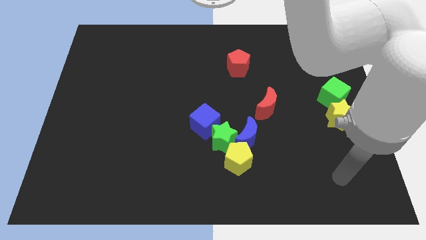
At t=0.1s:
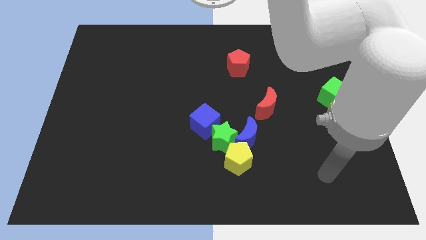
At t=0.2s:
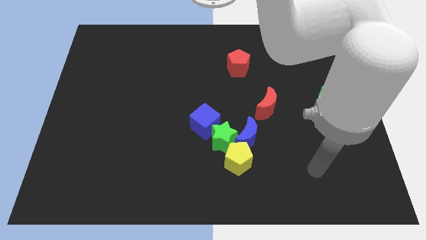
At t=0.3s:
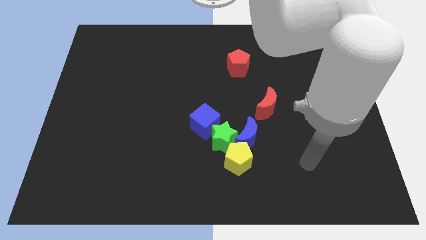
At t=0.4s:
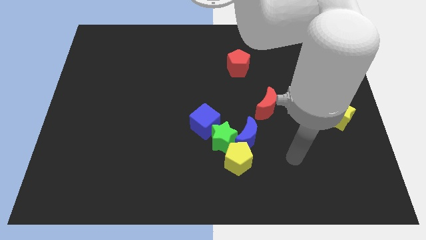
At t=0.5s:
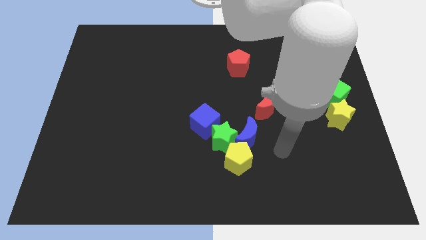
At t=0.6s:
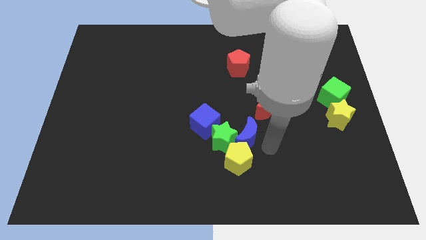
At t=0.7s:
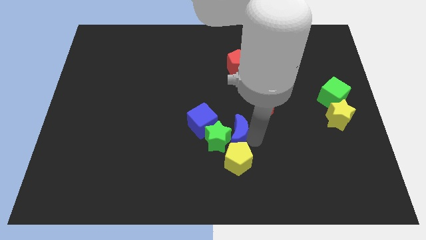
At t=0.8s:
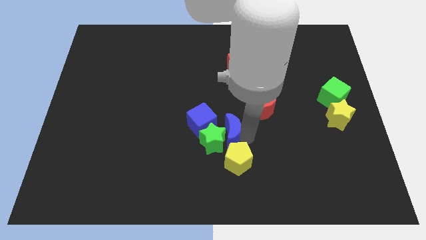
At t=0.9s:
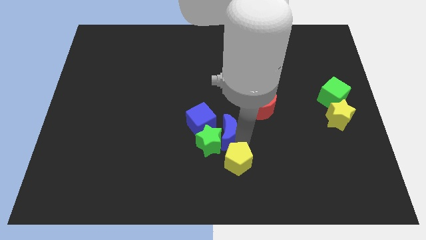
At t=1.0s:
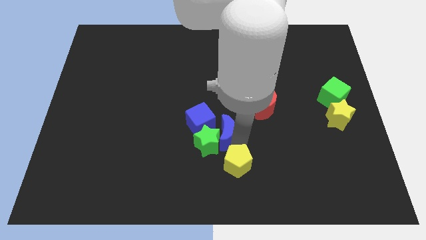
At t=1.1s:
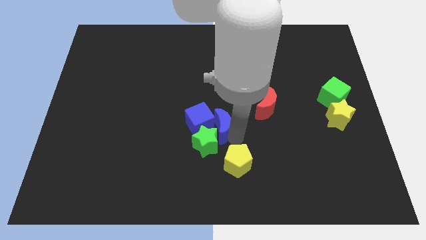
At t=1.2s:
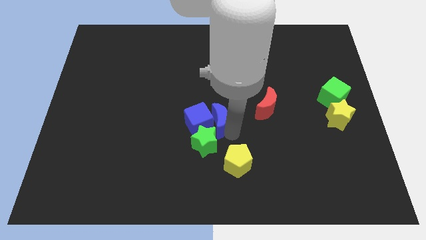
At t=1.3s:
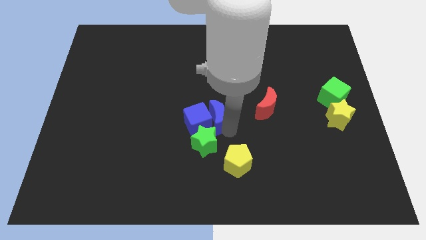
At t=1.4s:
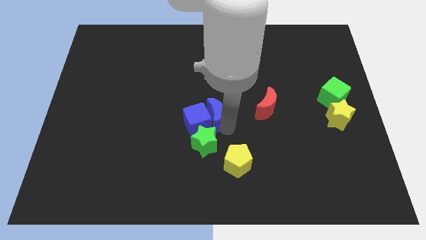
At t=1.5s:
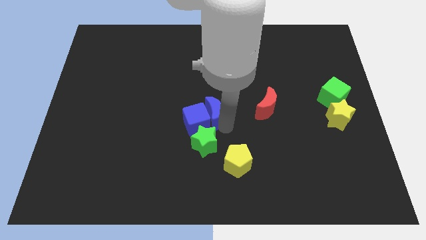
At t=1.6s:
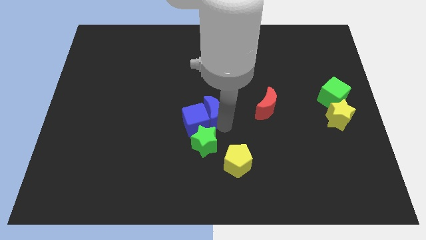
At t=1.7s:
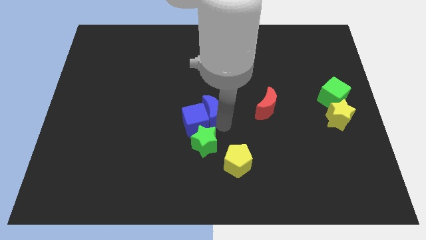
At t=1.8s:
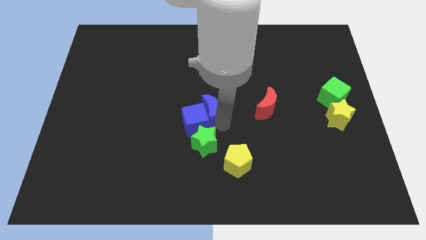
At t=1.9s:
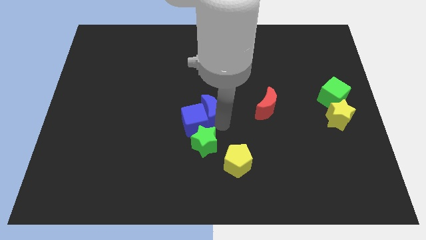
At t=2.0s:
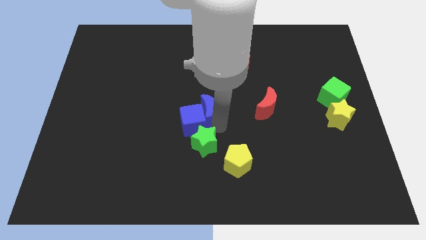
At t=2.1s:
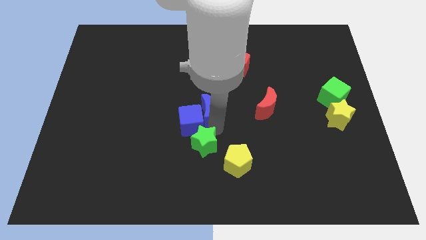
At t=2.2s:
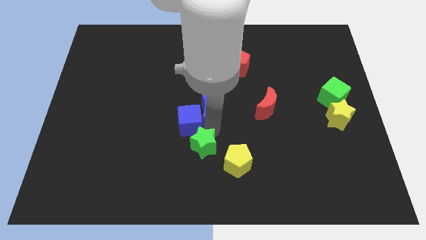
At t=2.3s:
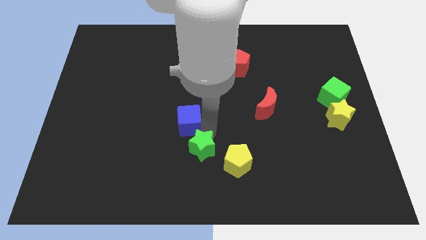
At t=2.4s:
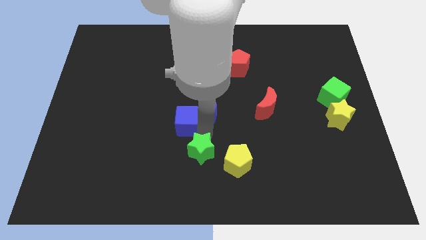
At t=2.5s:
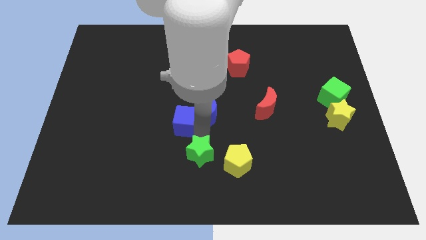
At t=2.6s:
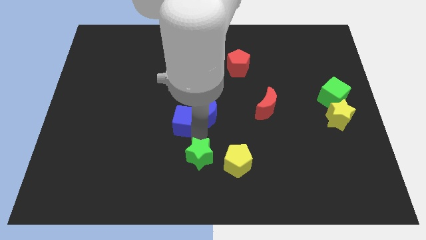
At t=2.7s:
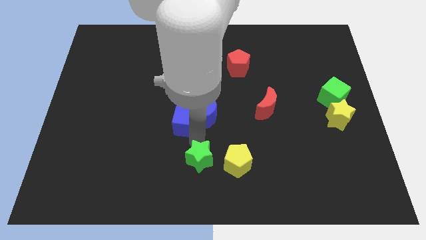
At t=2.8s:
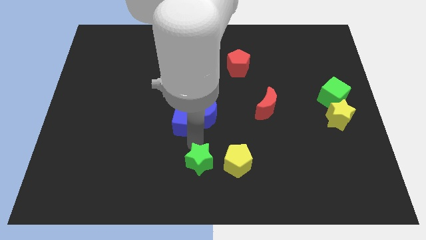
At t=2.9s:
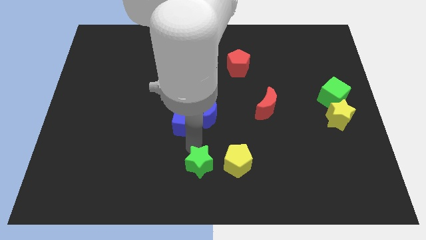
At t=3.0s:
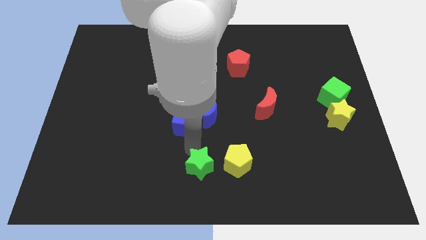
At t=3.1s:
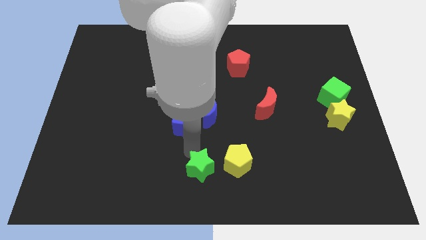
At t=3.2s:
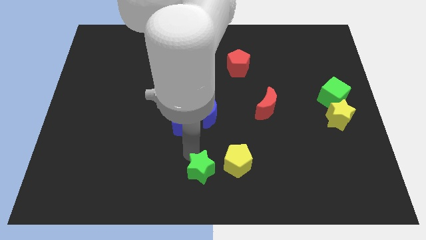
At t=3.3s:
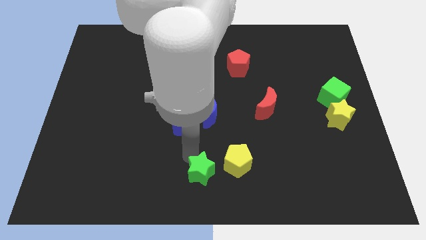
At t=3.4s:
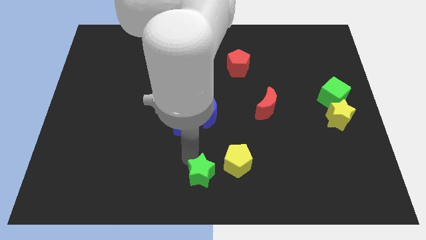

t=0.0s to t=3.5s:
separate the green star from the blue moon, blue cube, and yellow pentagon

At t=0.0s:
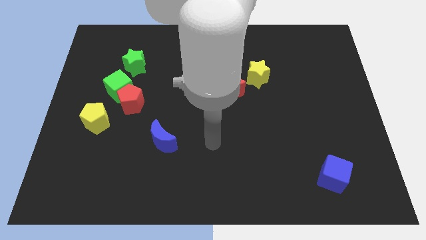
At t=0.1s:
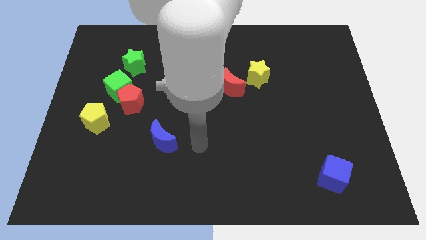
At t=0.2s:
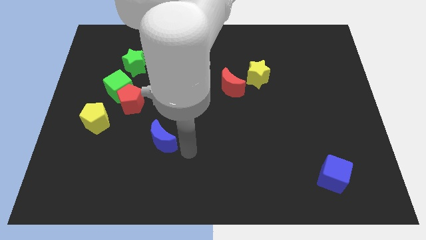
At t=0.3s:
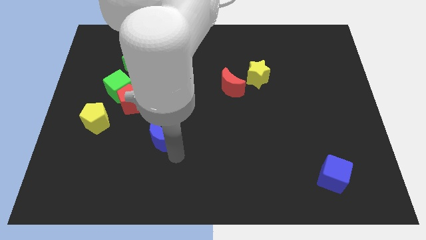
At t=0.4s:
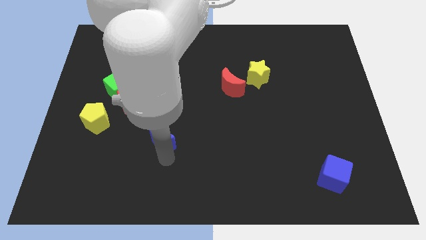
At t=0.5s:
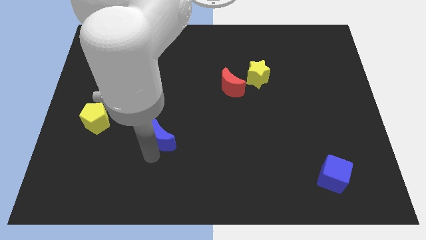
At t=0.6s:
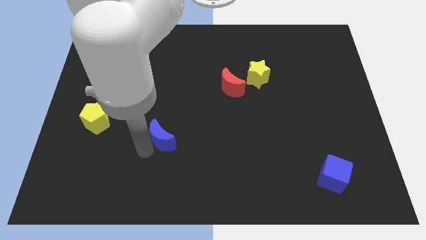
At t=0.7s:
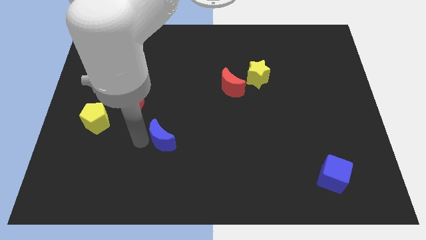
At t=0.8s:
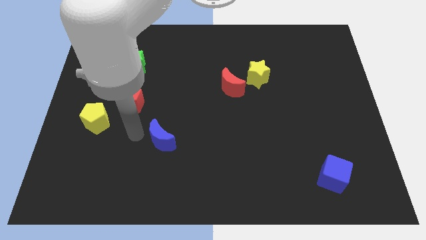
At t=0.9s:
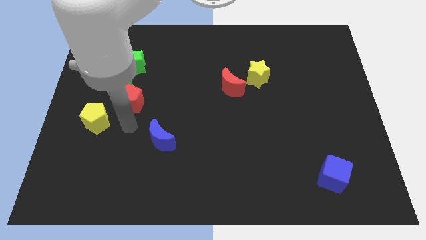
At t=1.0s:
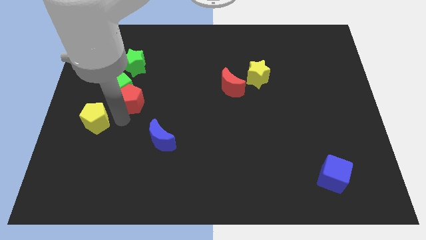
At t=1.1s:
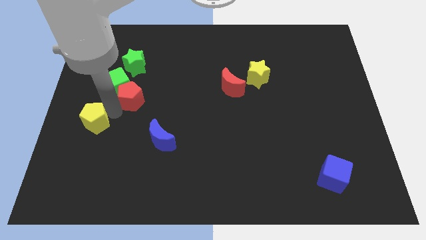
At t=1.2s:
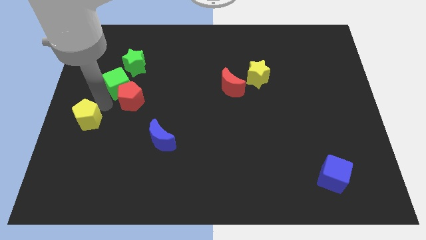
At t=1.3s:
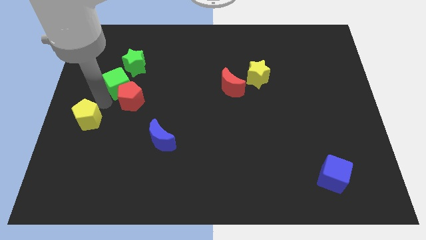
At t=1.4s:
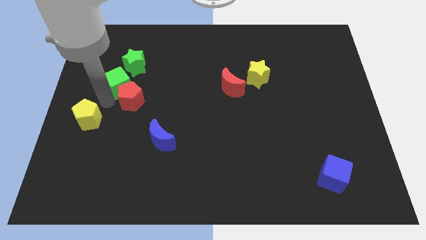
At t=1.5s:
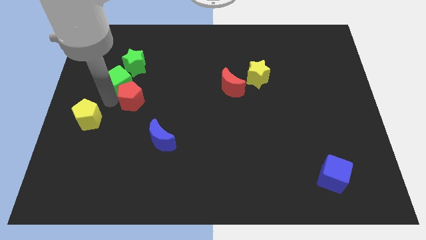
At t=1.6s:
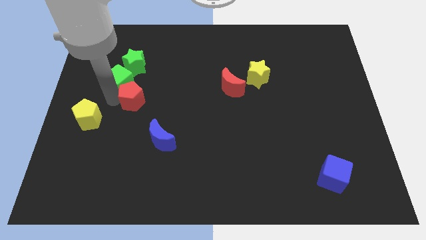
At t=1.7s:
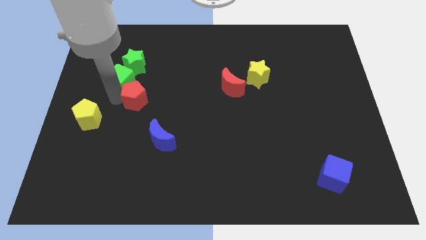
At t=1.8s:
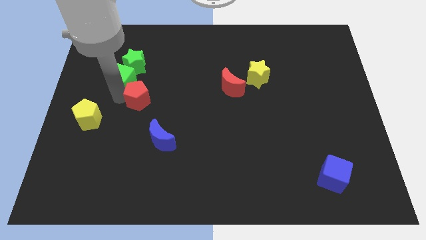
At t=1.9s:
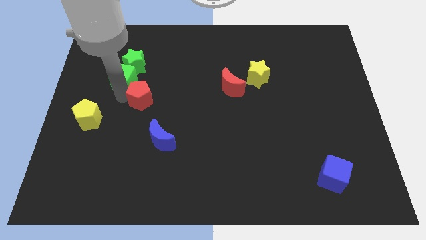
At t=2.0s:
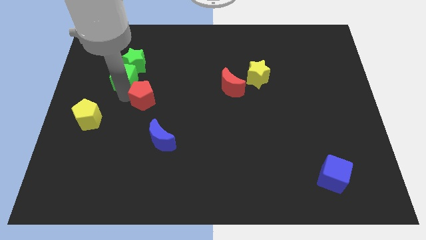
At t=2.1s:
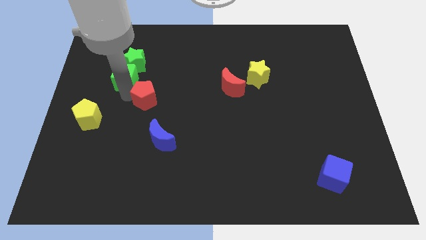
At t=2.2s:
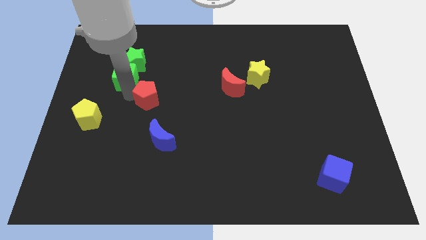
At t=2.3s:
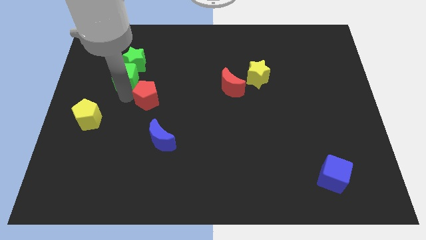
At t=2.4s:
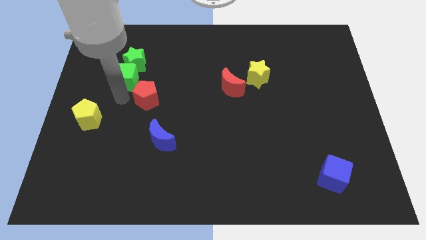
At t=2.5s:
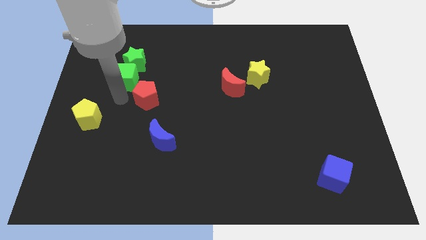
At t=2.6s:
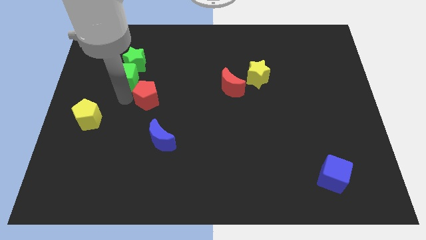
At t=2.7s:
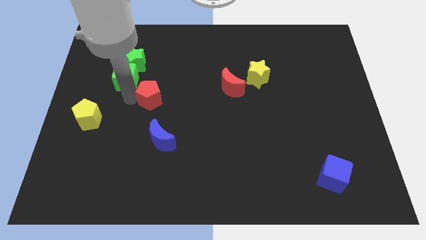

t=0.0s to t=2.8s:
pull the red pentagon apart from the green cube and yellow pentagon

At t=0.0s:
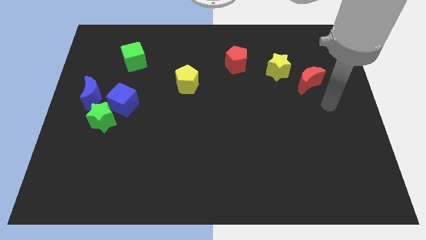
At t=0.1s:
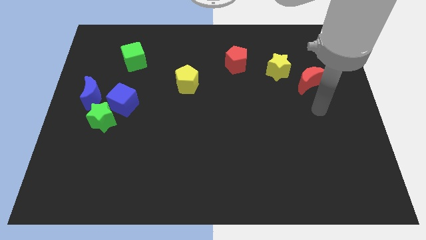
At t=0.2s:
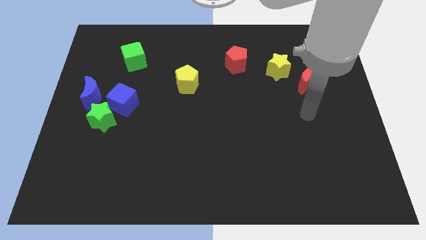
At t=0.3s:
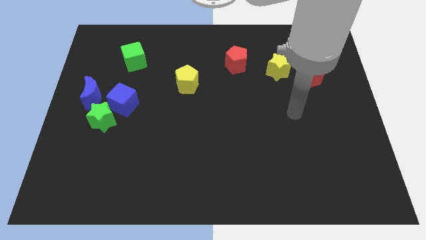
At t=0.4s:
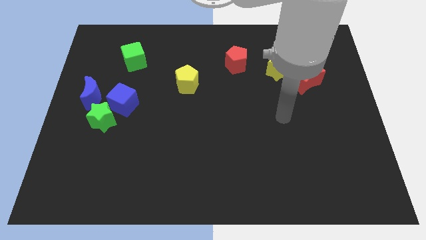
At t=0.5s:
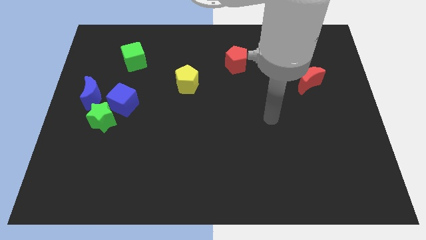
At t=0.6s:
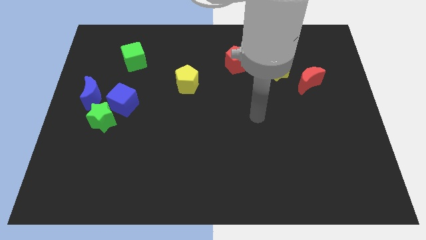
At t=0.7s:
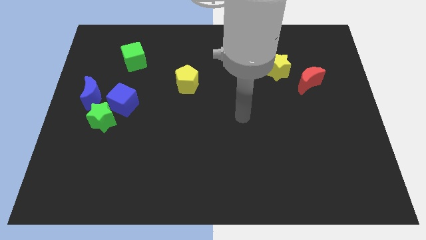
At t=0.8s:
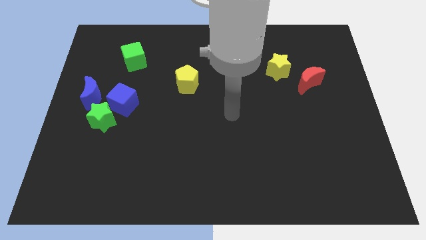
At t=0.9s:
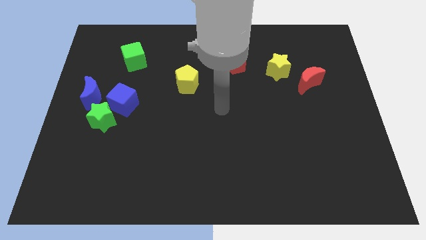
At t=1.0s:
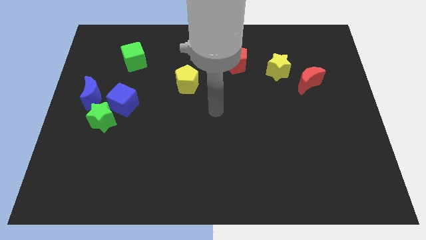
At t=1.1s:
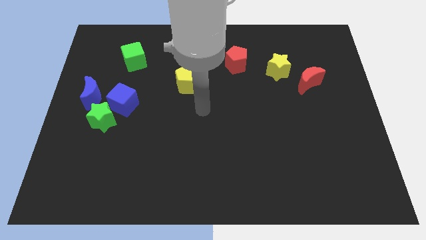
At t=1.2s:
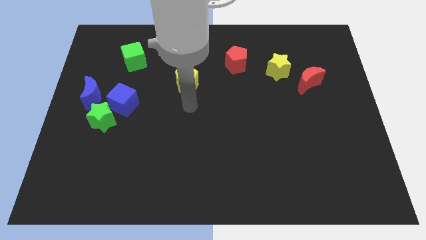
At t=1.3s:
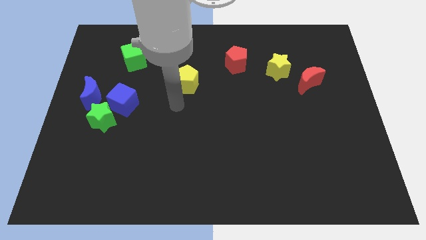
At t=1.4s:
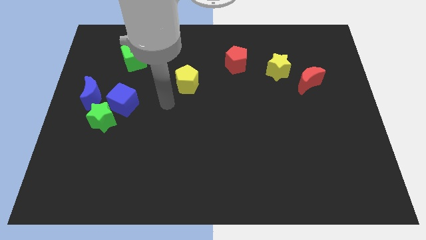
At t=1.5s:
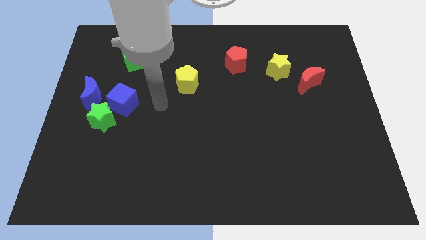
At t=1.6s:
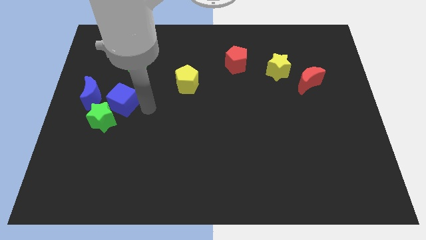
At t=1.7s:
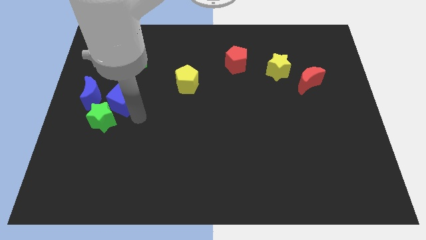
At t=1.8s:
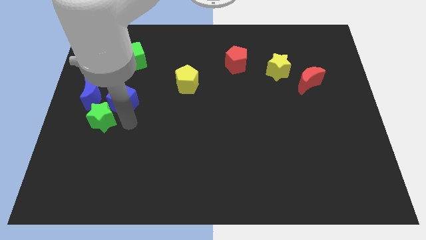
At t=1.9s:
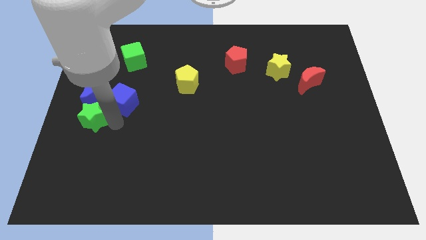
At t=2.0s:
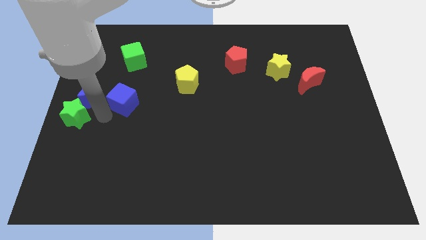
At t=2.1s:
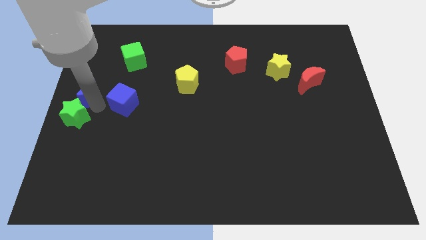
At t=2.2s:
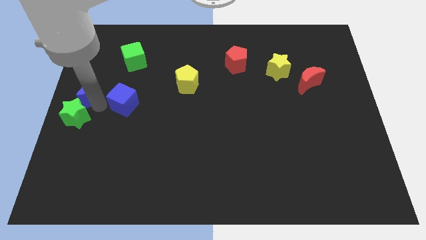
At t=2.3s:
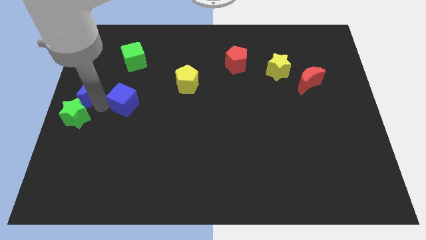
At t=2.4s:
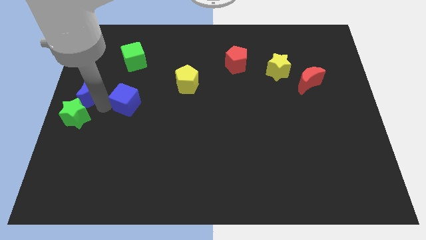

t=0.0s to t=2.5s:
separate the blue cube from the green star and blue moon

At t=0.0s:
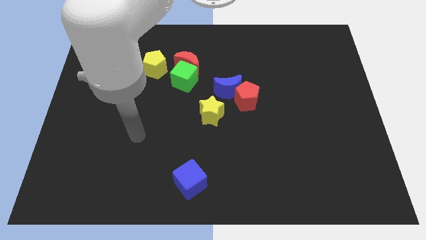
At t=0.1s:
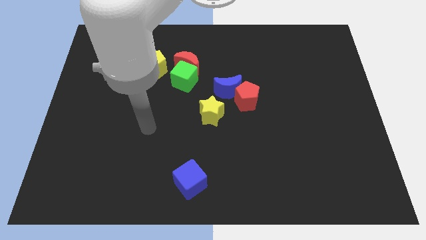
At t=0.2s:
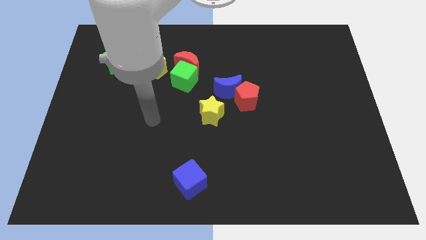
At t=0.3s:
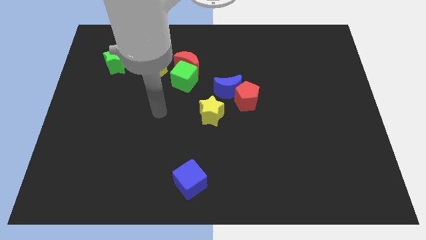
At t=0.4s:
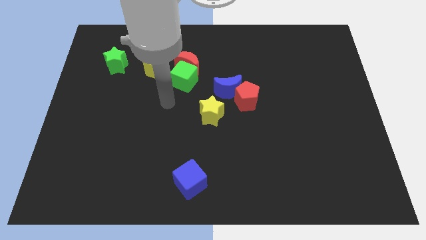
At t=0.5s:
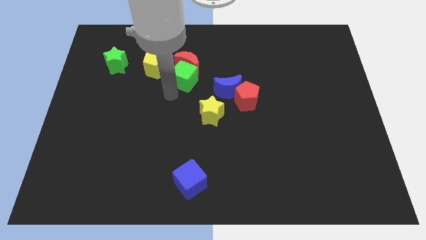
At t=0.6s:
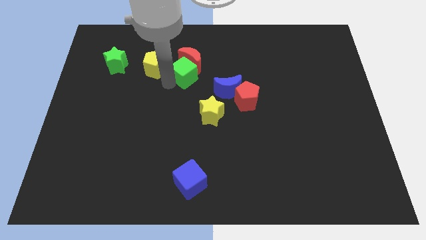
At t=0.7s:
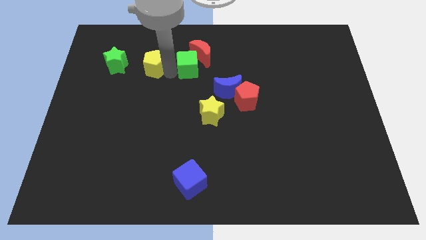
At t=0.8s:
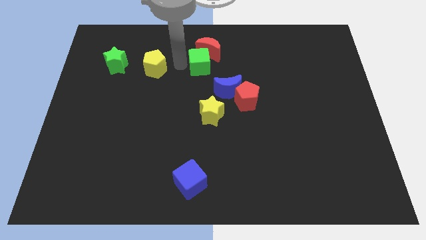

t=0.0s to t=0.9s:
move the red moon away from the green cube and yellow pentagon
